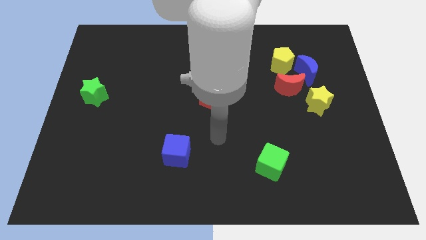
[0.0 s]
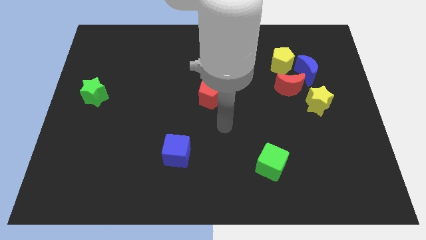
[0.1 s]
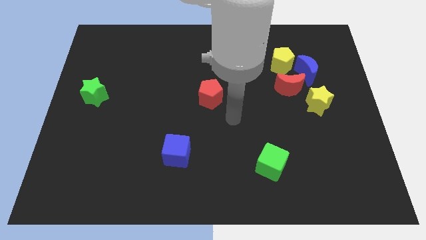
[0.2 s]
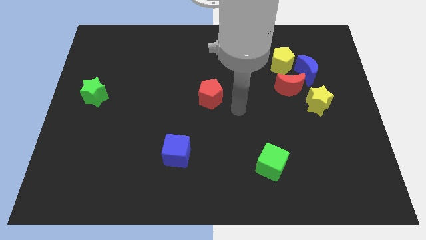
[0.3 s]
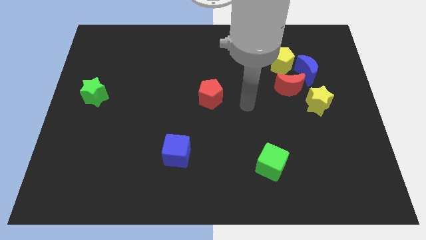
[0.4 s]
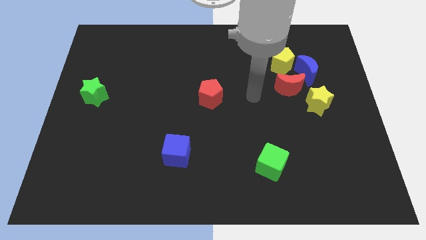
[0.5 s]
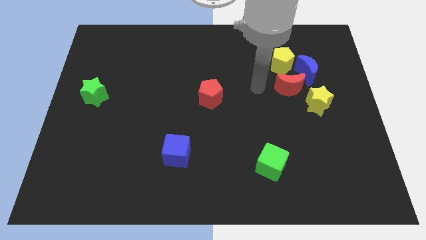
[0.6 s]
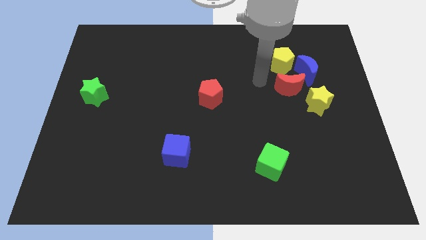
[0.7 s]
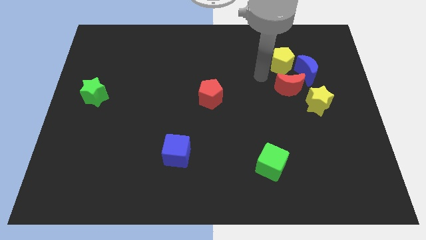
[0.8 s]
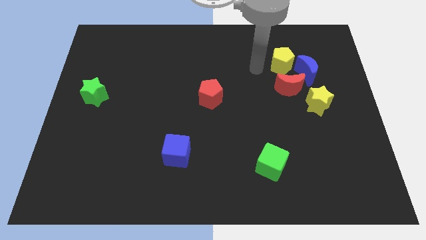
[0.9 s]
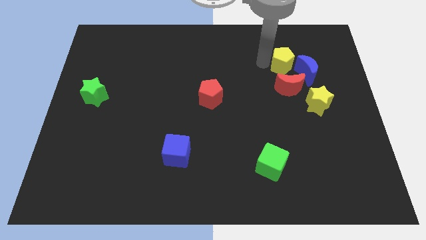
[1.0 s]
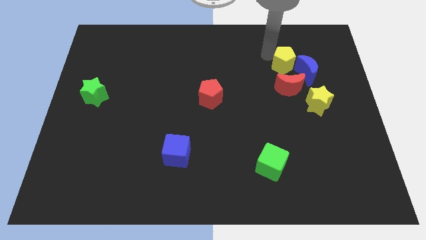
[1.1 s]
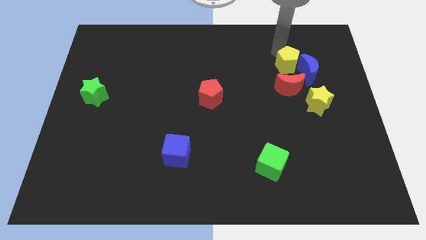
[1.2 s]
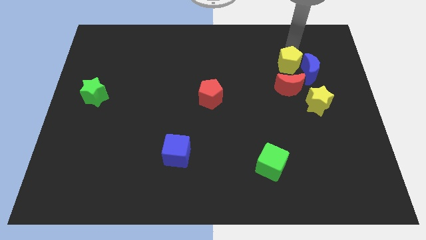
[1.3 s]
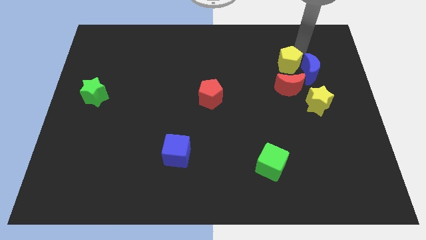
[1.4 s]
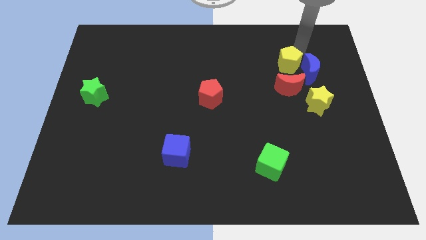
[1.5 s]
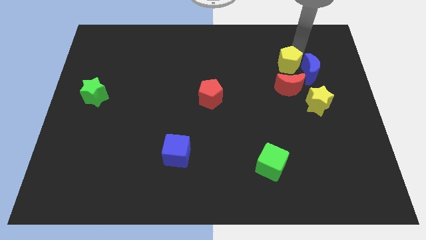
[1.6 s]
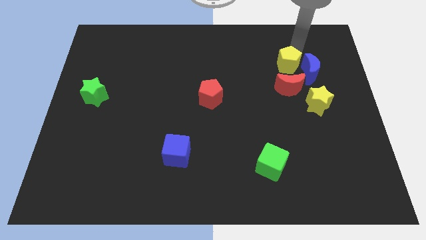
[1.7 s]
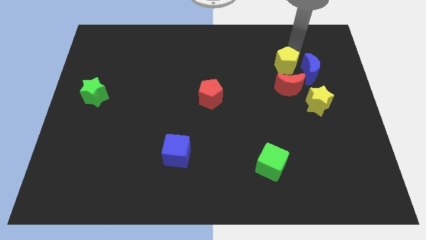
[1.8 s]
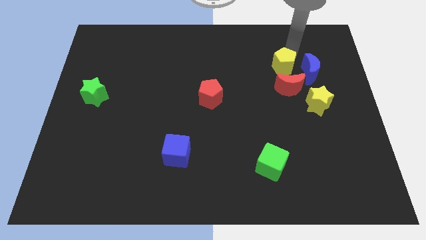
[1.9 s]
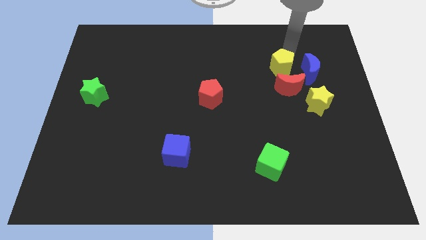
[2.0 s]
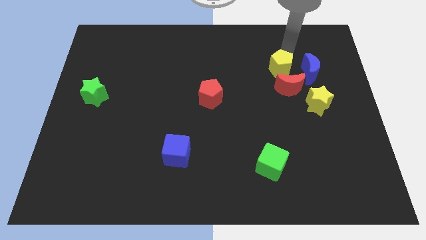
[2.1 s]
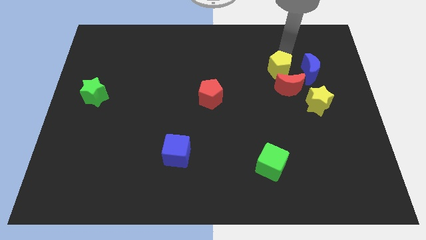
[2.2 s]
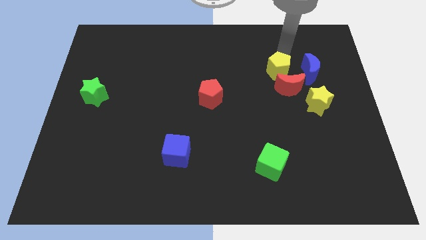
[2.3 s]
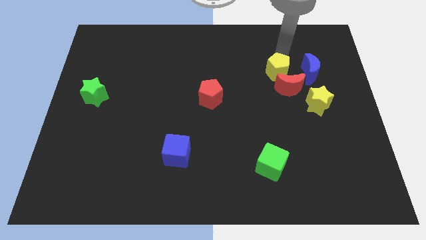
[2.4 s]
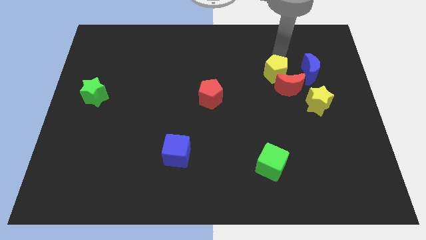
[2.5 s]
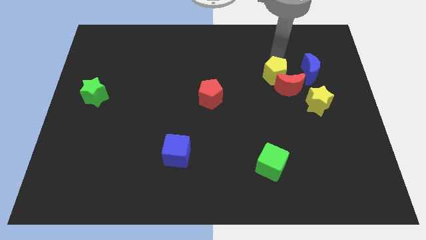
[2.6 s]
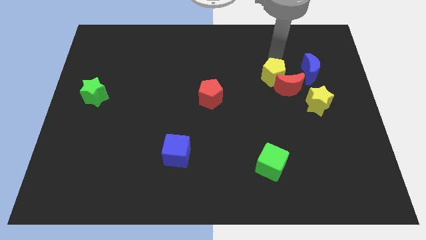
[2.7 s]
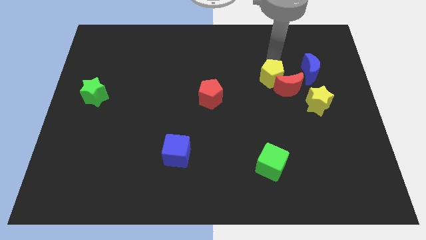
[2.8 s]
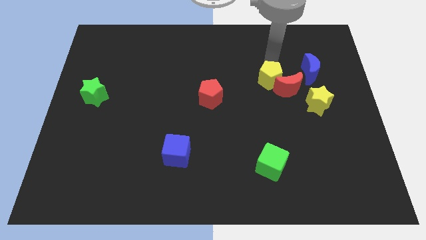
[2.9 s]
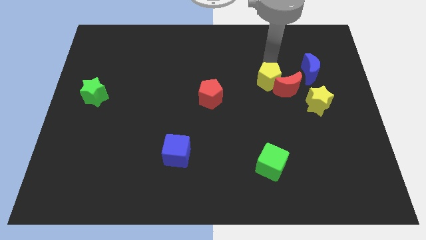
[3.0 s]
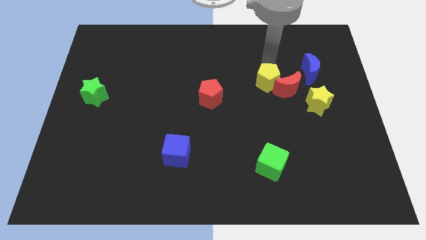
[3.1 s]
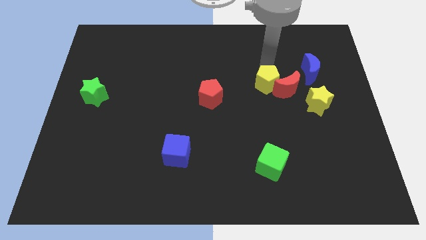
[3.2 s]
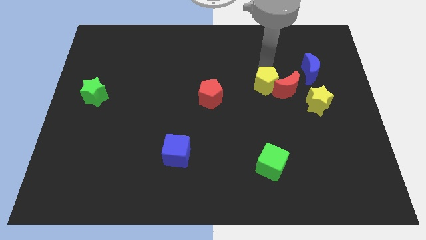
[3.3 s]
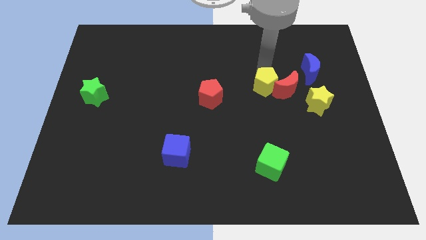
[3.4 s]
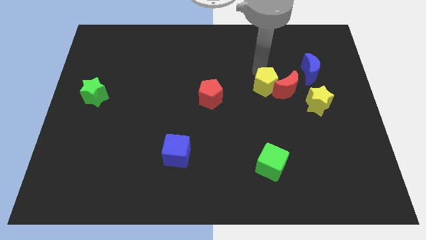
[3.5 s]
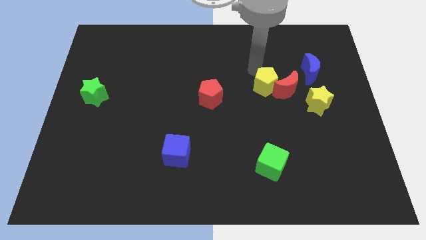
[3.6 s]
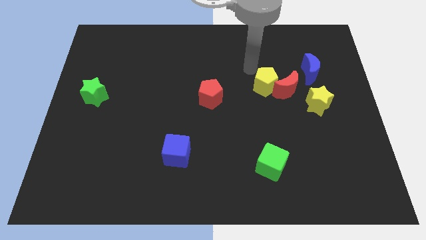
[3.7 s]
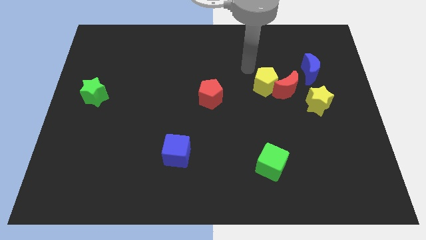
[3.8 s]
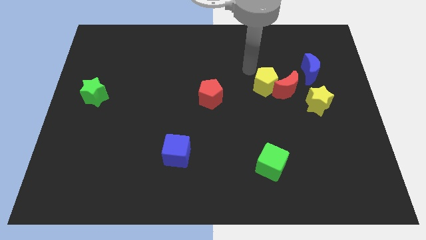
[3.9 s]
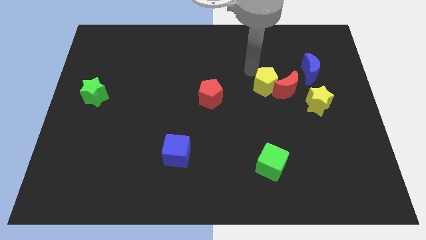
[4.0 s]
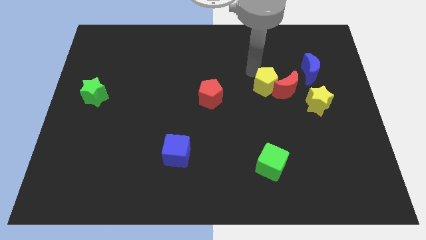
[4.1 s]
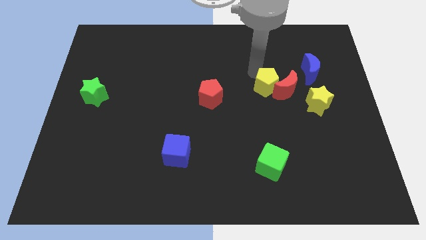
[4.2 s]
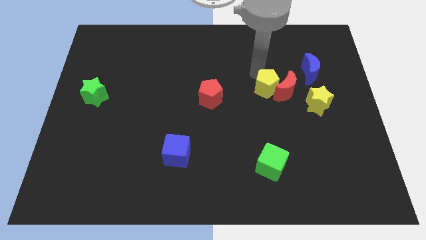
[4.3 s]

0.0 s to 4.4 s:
push the yellow pentagon downwards a little bit

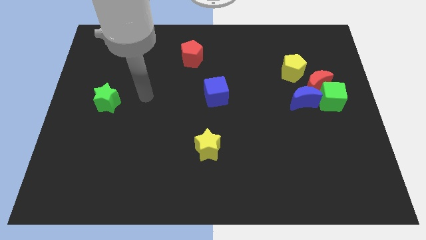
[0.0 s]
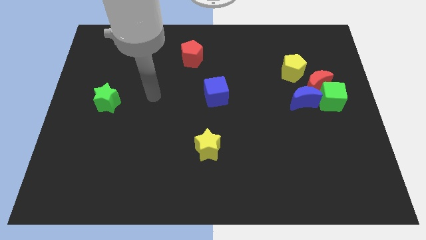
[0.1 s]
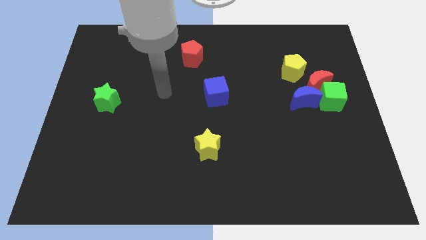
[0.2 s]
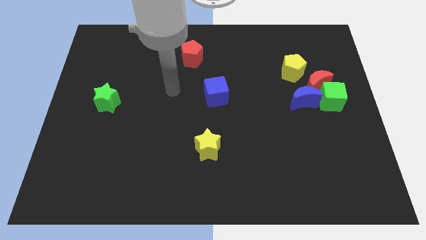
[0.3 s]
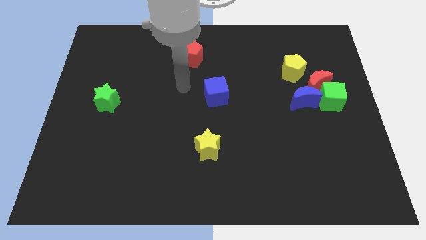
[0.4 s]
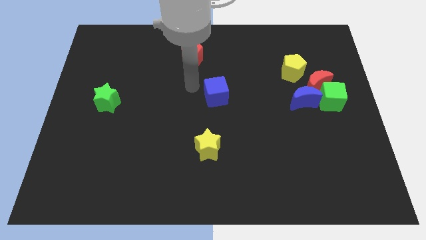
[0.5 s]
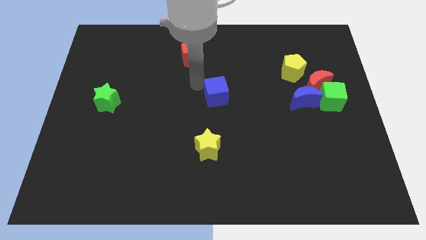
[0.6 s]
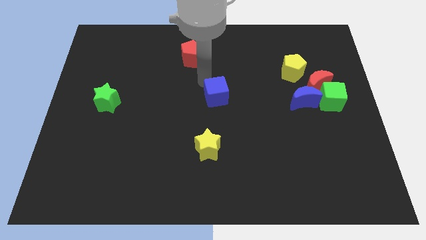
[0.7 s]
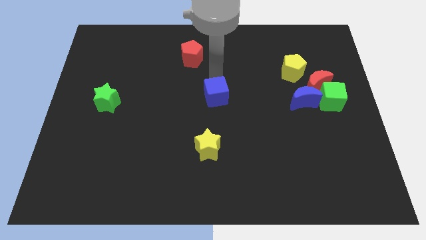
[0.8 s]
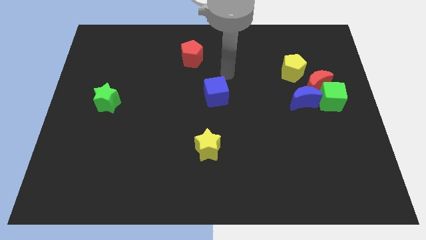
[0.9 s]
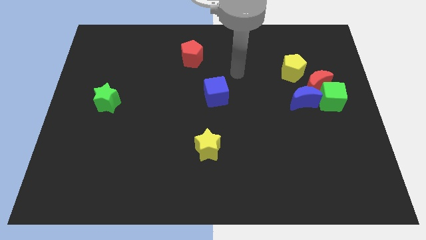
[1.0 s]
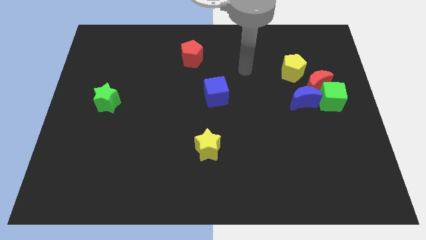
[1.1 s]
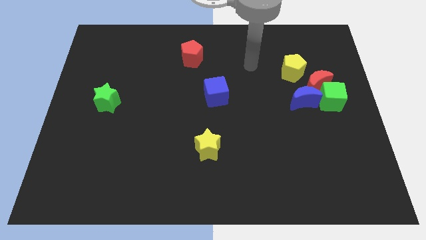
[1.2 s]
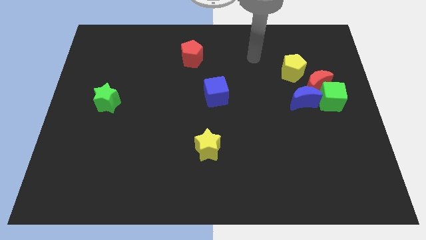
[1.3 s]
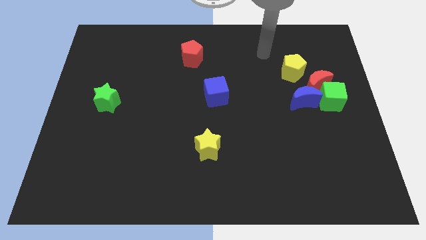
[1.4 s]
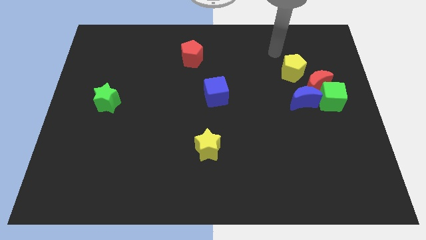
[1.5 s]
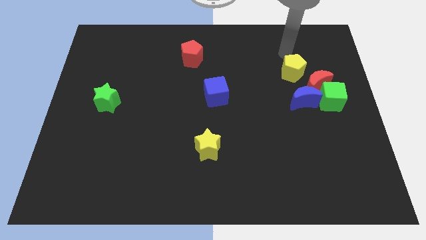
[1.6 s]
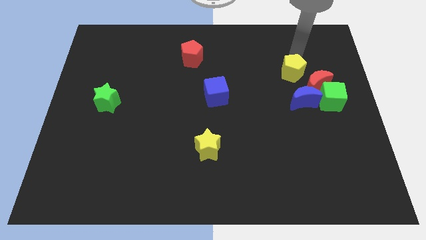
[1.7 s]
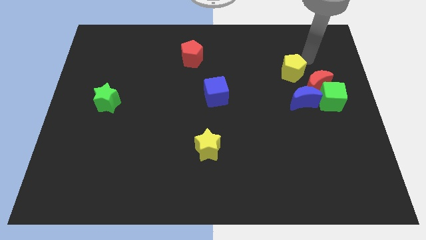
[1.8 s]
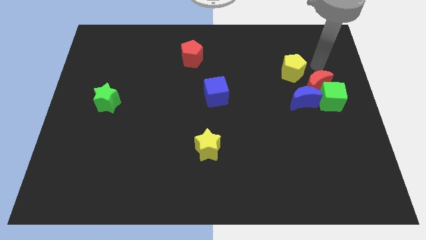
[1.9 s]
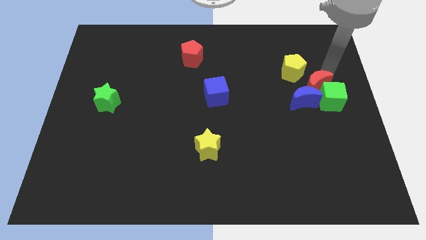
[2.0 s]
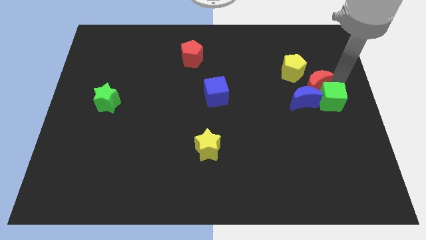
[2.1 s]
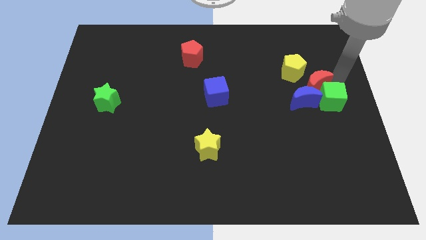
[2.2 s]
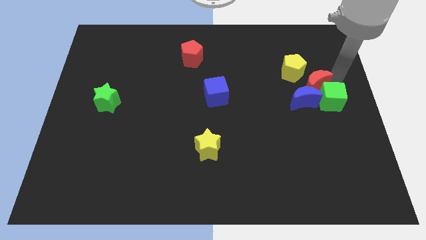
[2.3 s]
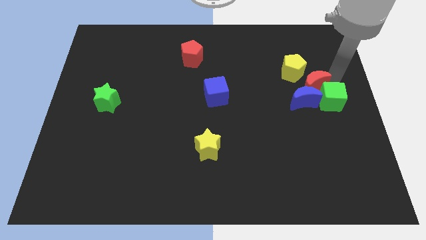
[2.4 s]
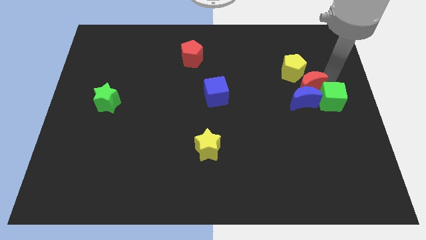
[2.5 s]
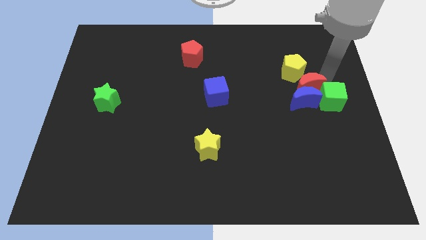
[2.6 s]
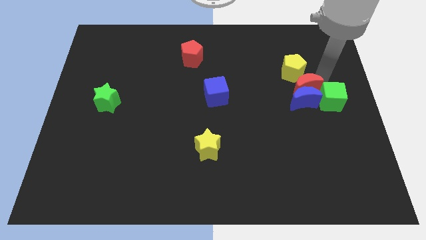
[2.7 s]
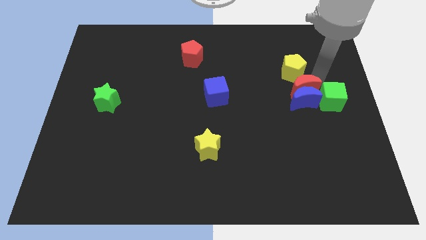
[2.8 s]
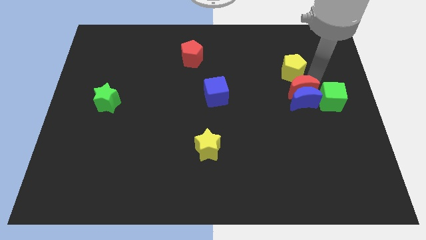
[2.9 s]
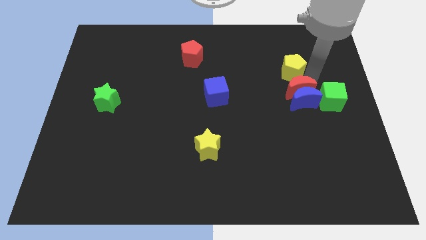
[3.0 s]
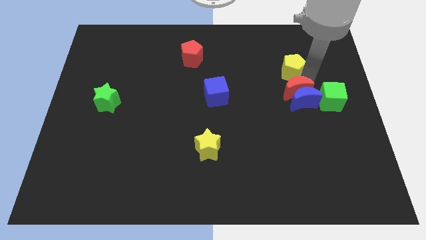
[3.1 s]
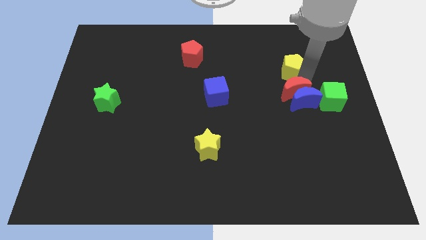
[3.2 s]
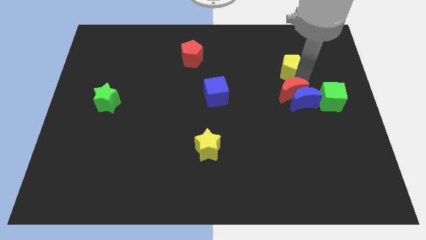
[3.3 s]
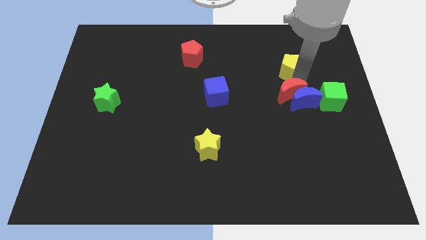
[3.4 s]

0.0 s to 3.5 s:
push the red moon left somewhat

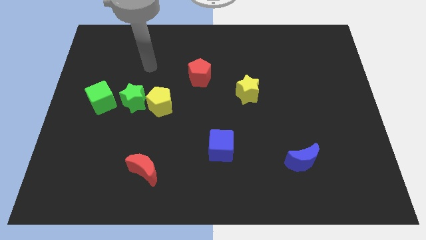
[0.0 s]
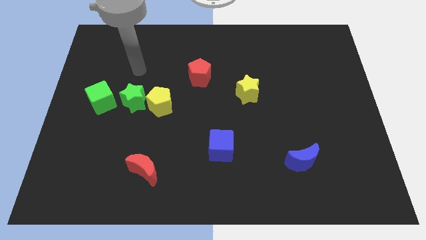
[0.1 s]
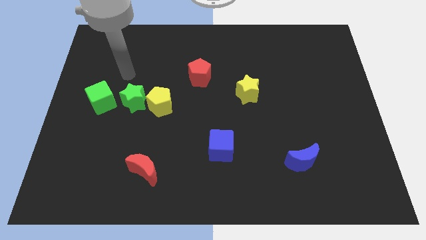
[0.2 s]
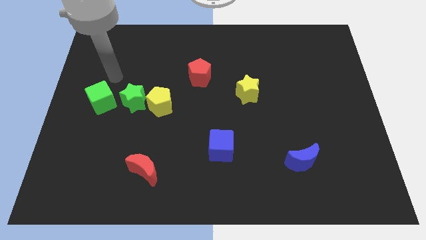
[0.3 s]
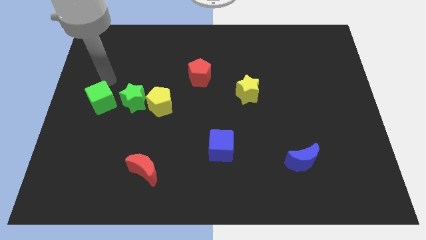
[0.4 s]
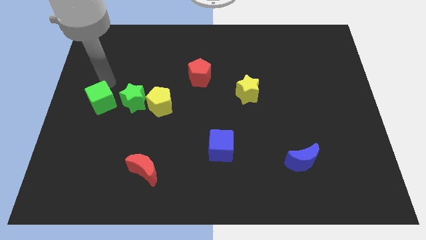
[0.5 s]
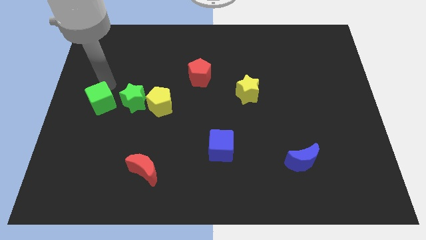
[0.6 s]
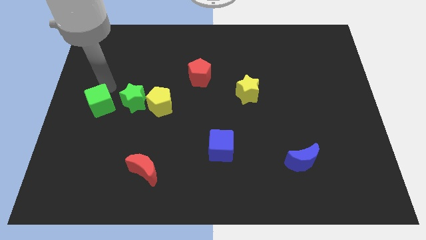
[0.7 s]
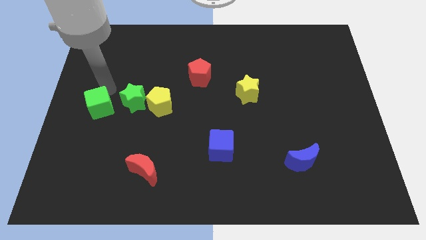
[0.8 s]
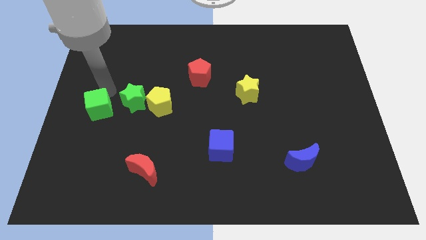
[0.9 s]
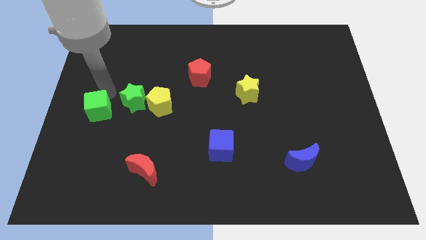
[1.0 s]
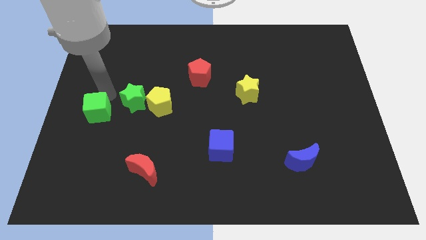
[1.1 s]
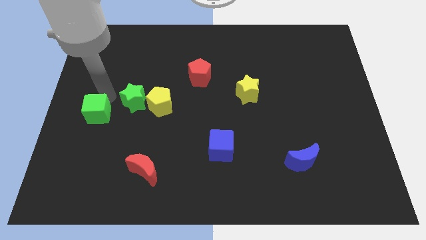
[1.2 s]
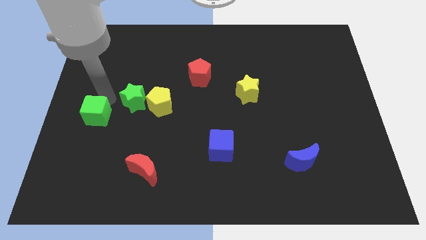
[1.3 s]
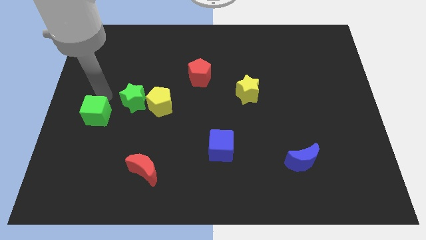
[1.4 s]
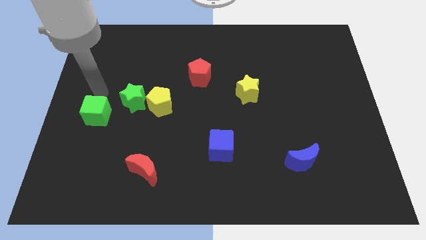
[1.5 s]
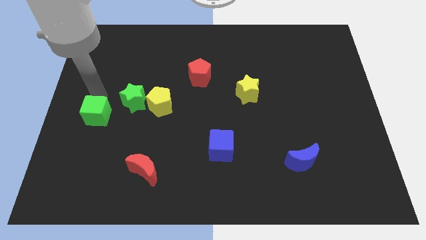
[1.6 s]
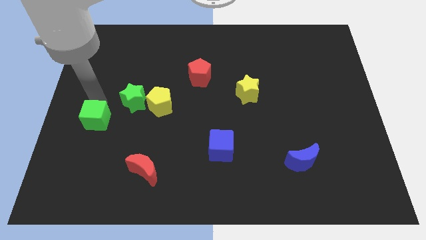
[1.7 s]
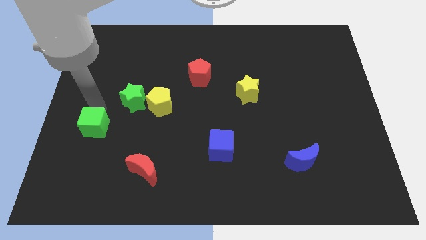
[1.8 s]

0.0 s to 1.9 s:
push the green cube down a little
